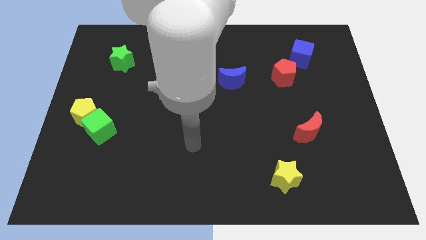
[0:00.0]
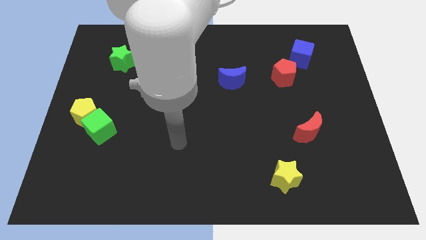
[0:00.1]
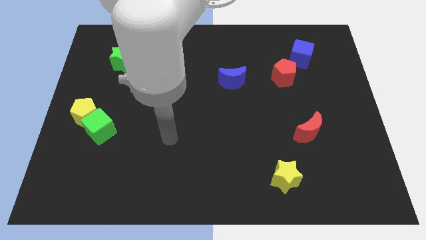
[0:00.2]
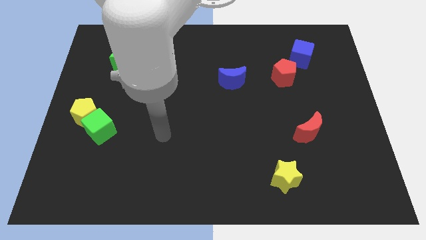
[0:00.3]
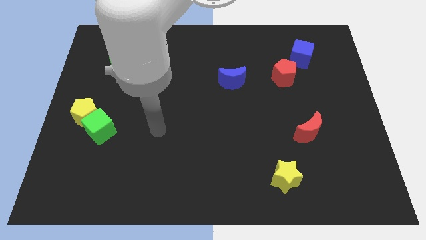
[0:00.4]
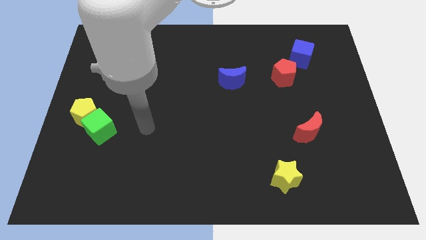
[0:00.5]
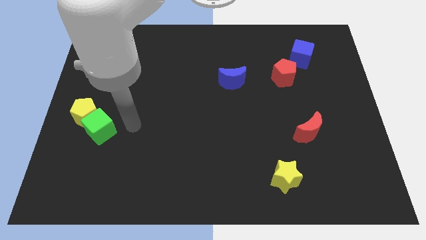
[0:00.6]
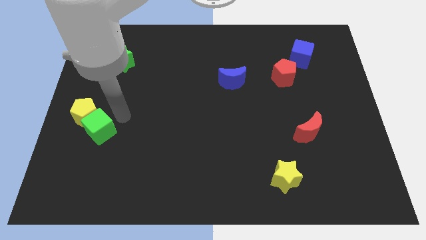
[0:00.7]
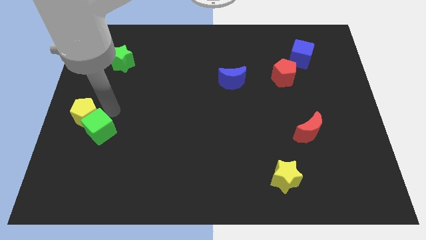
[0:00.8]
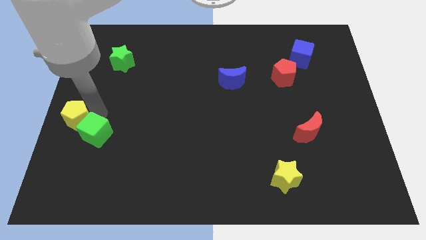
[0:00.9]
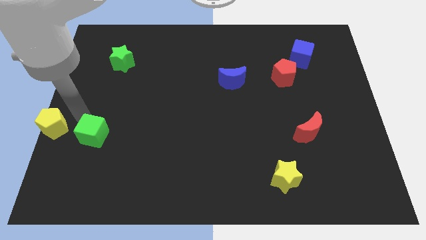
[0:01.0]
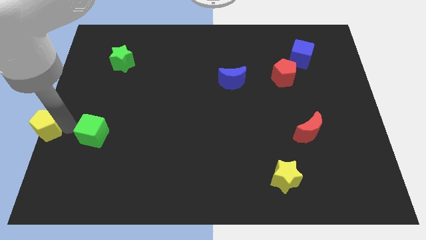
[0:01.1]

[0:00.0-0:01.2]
pull the green cube apart from the yellow pentagon

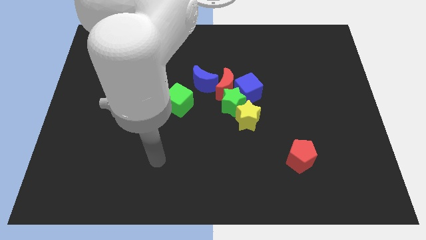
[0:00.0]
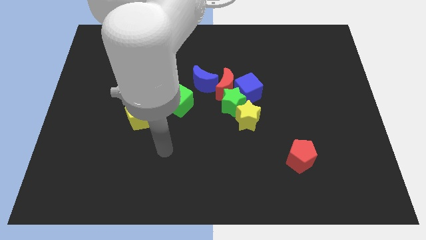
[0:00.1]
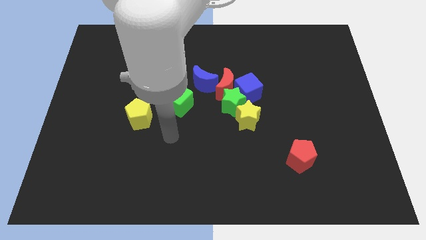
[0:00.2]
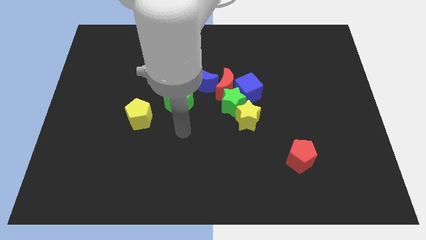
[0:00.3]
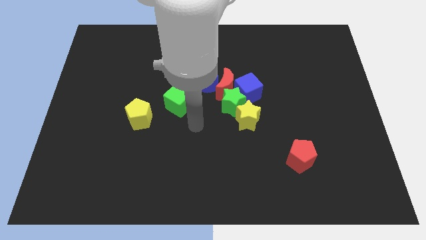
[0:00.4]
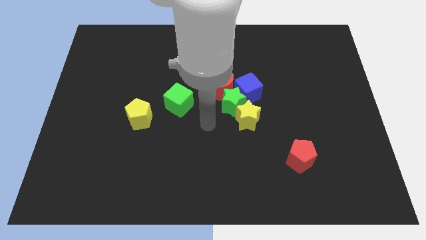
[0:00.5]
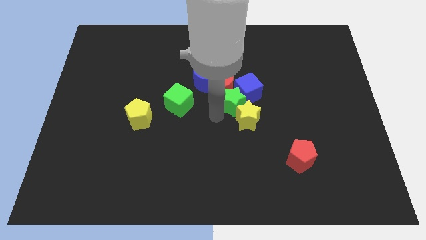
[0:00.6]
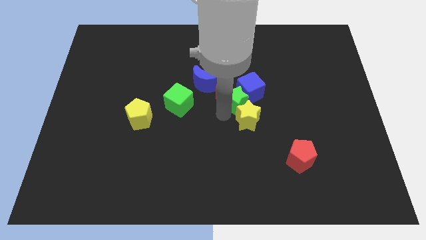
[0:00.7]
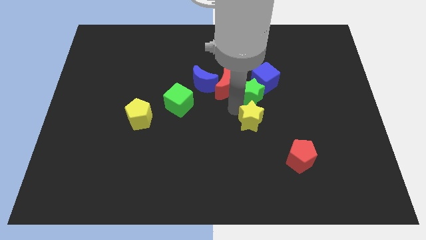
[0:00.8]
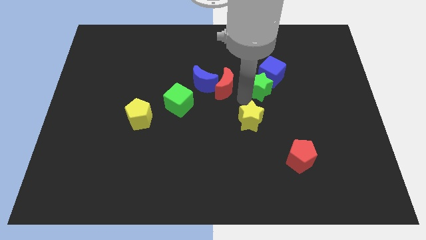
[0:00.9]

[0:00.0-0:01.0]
pull the blue cube apart from the group

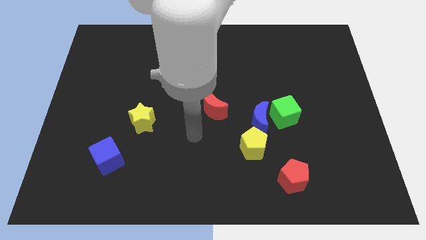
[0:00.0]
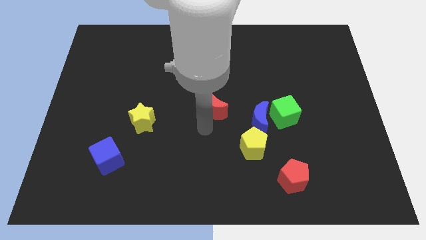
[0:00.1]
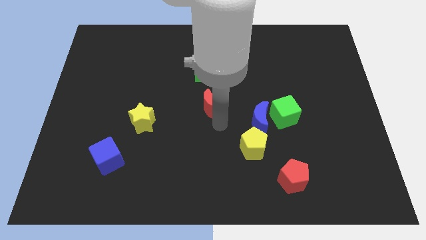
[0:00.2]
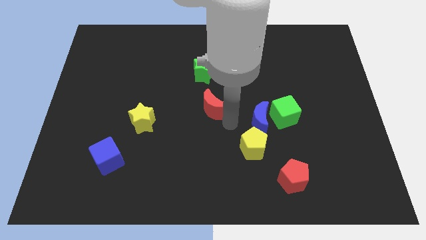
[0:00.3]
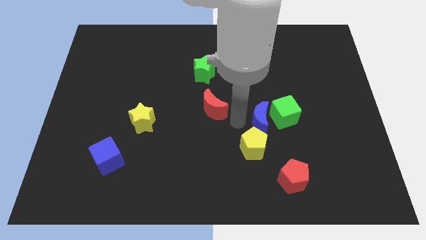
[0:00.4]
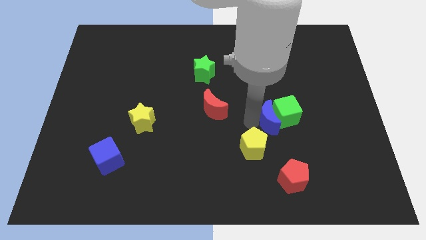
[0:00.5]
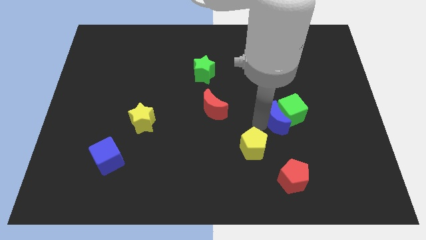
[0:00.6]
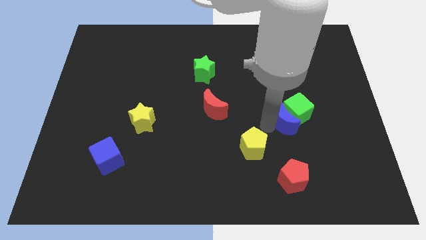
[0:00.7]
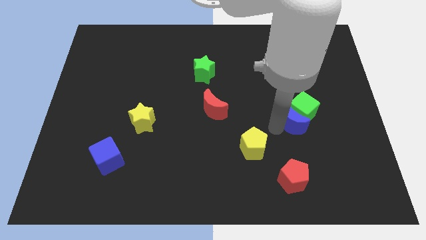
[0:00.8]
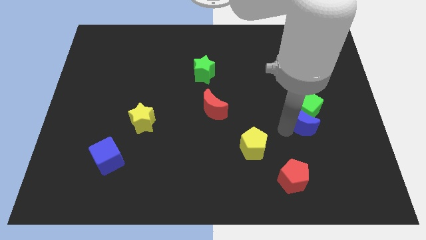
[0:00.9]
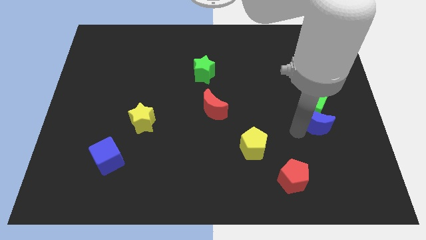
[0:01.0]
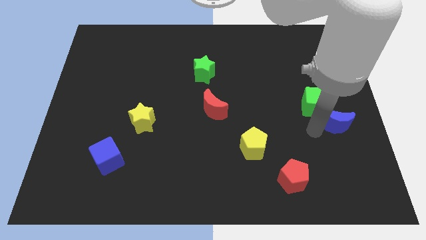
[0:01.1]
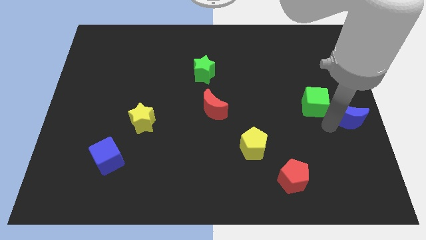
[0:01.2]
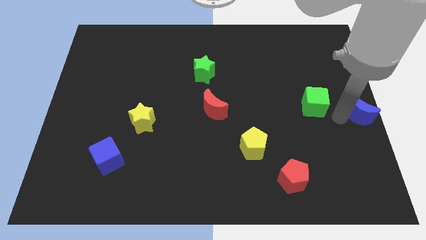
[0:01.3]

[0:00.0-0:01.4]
separate the green cube from the blue moon

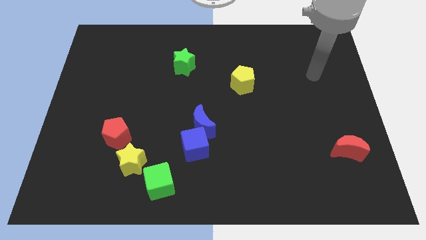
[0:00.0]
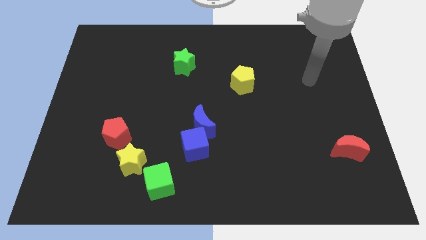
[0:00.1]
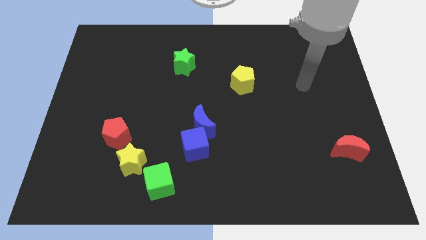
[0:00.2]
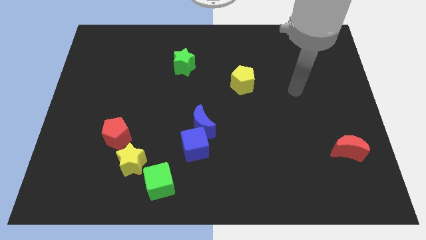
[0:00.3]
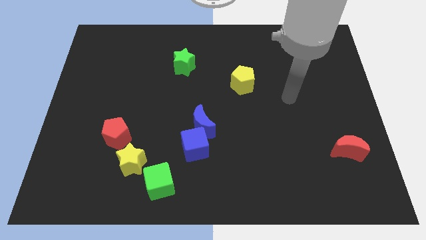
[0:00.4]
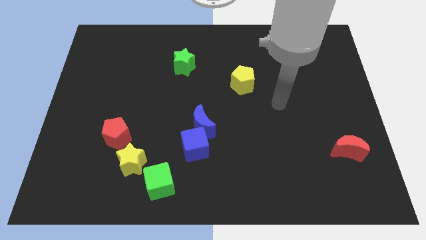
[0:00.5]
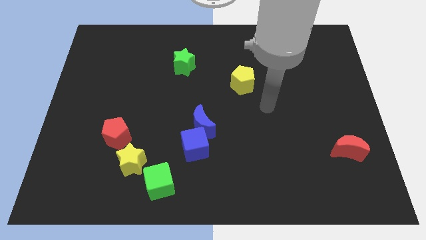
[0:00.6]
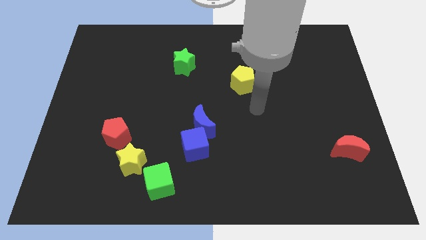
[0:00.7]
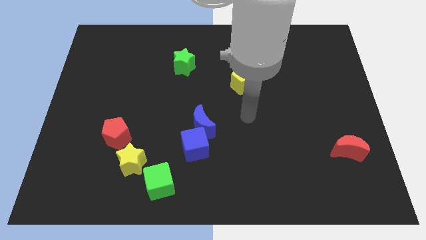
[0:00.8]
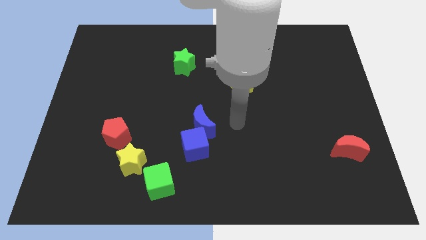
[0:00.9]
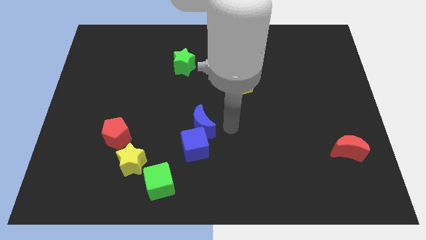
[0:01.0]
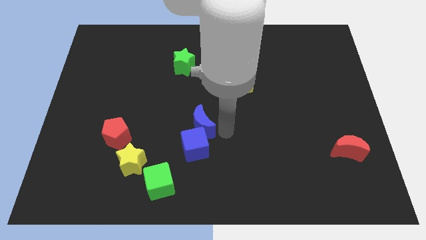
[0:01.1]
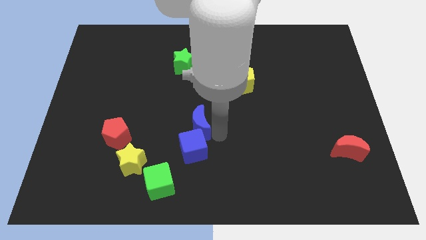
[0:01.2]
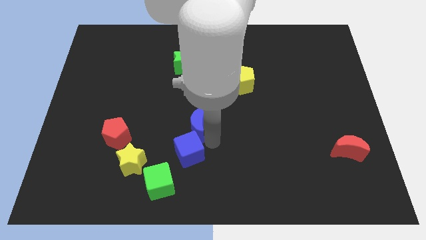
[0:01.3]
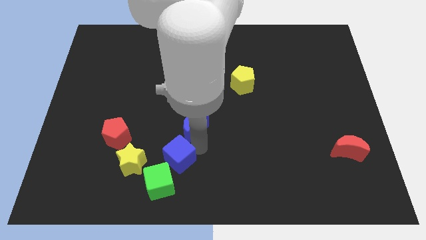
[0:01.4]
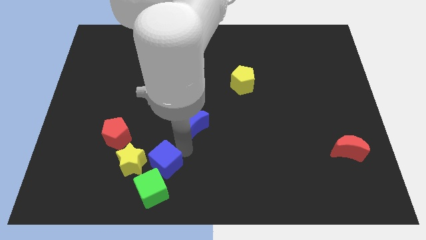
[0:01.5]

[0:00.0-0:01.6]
pull the blue moon apart from the blue cube

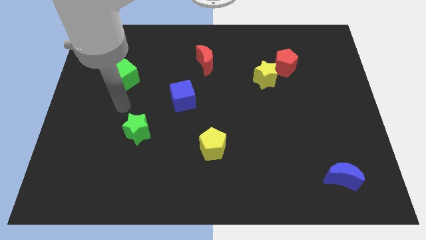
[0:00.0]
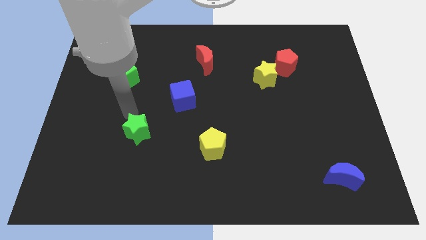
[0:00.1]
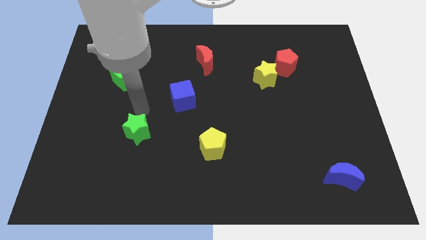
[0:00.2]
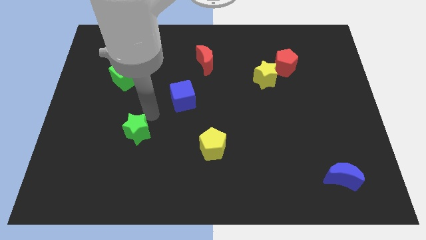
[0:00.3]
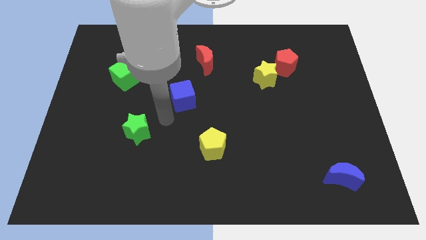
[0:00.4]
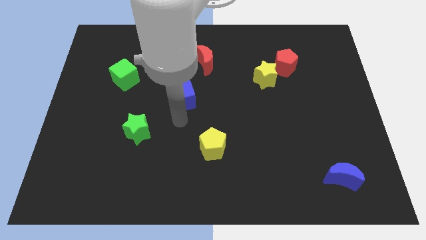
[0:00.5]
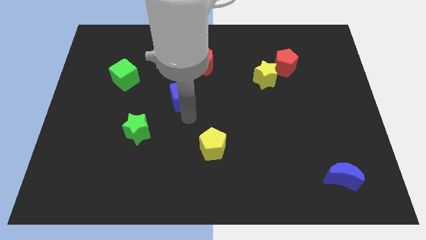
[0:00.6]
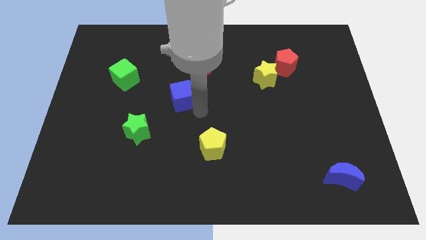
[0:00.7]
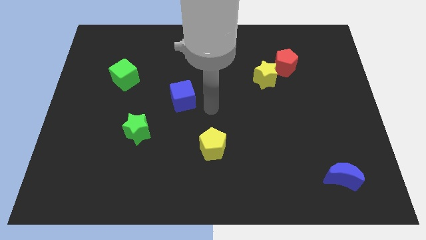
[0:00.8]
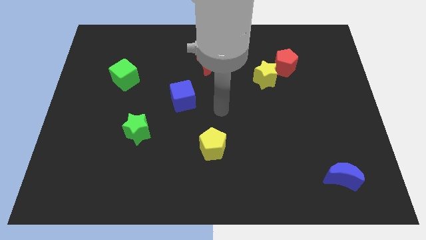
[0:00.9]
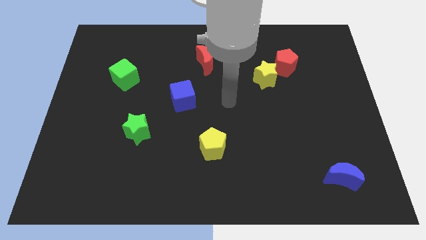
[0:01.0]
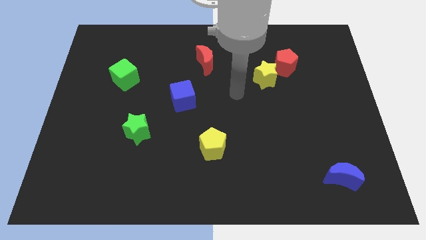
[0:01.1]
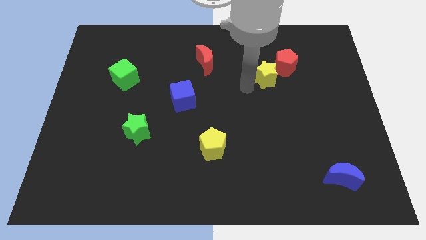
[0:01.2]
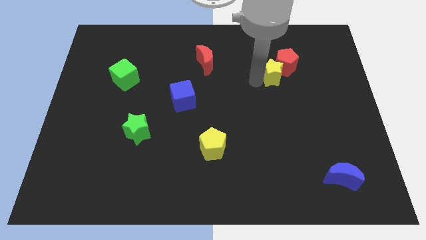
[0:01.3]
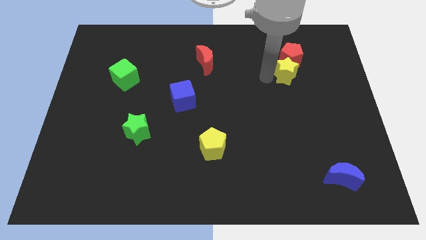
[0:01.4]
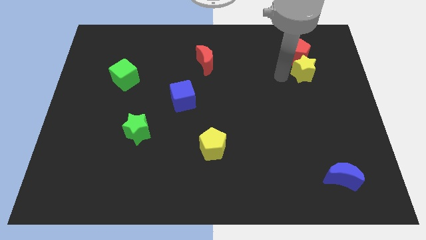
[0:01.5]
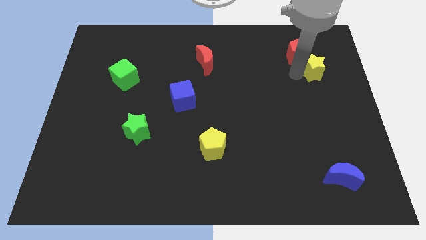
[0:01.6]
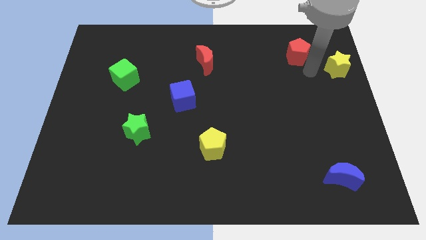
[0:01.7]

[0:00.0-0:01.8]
separate the red pentagon from the yellow star

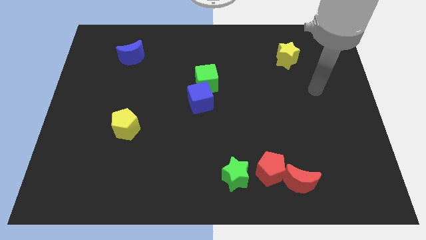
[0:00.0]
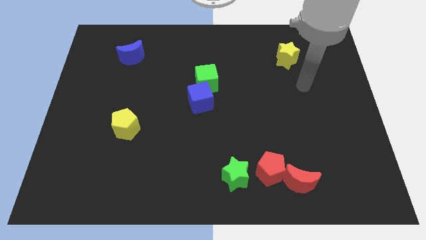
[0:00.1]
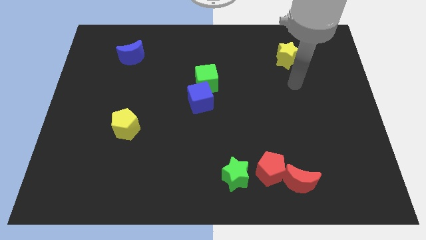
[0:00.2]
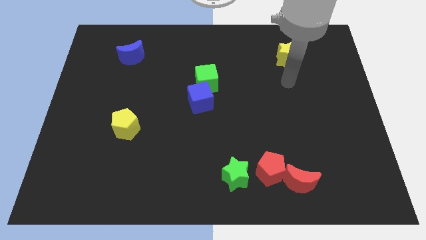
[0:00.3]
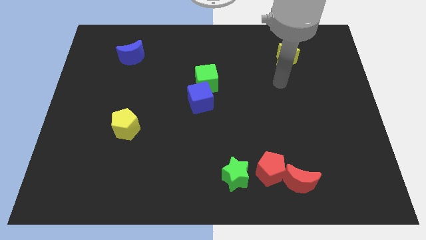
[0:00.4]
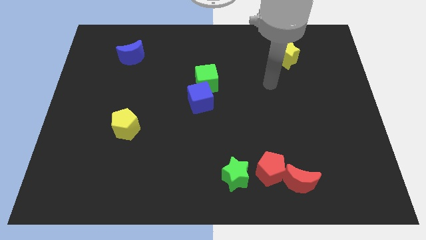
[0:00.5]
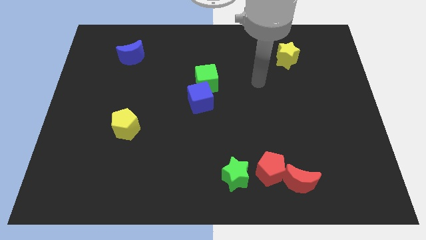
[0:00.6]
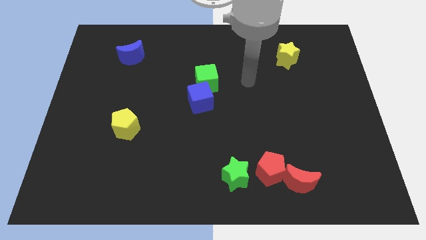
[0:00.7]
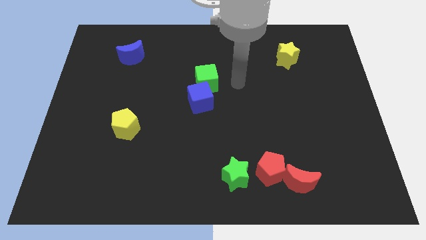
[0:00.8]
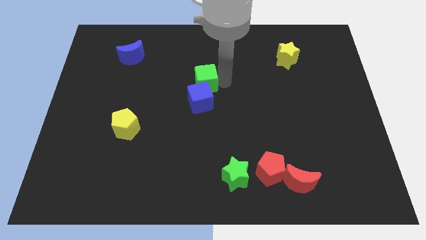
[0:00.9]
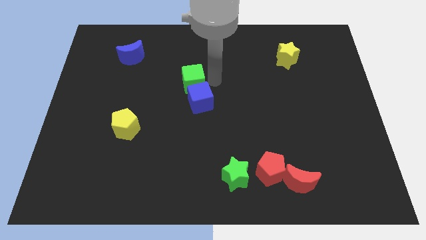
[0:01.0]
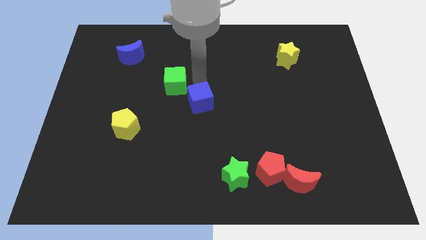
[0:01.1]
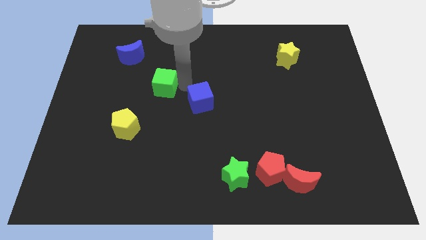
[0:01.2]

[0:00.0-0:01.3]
move the blue cube away from the green cube

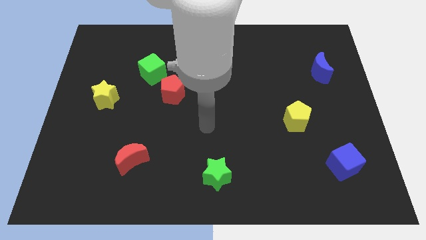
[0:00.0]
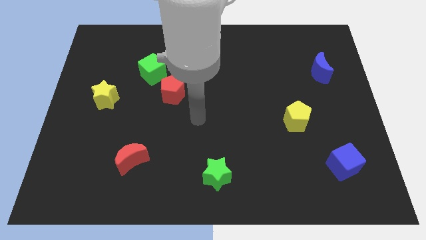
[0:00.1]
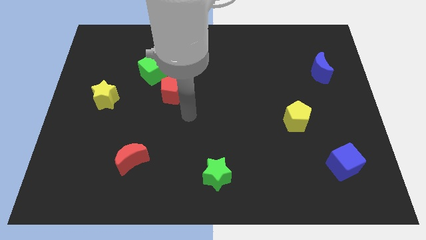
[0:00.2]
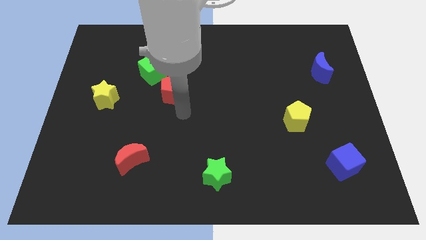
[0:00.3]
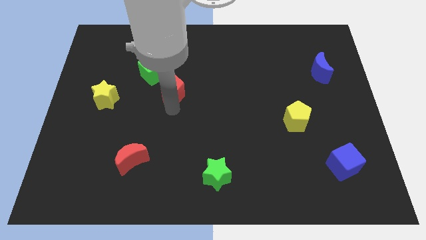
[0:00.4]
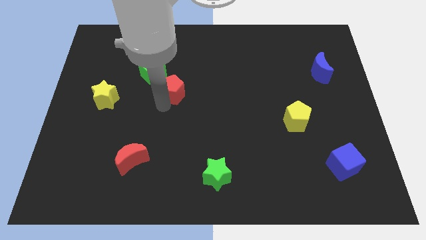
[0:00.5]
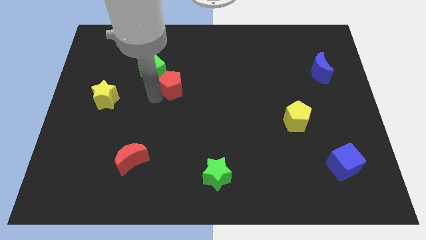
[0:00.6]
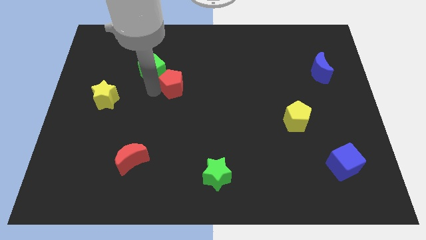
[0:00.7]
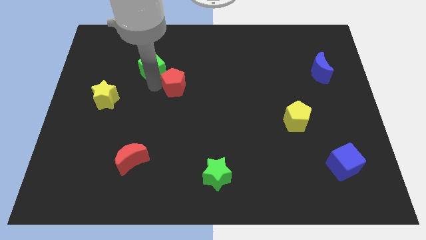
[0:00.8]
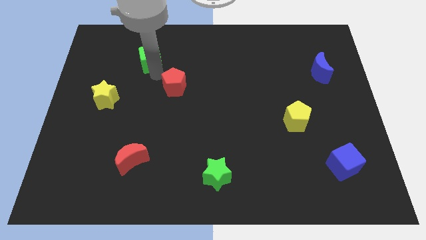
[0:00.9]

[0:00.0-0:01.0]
move the red pentagon away from the green cube
